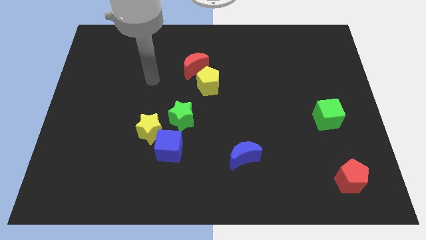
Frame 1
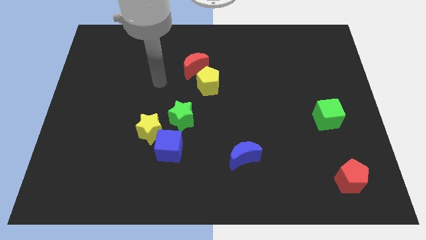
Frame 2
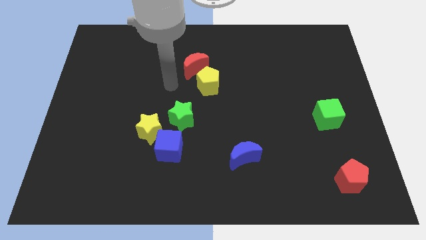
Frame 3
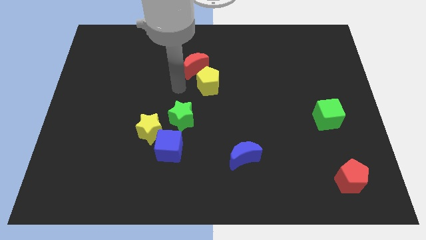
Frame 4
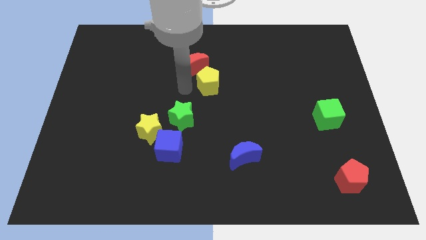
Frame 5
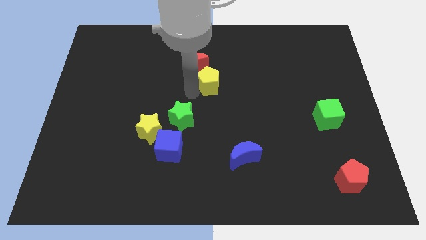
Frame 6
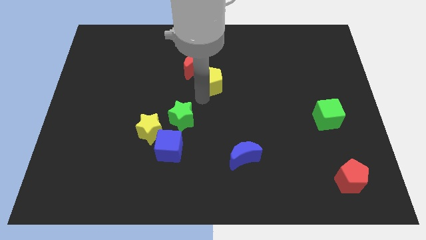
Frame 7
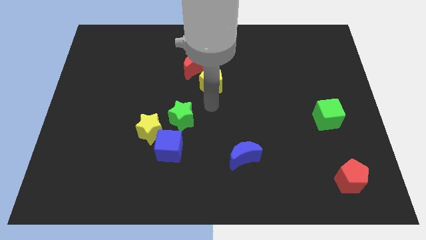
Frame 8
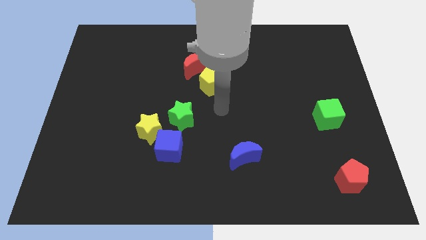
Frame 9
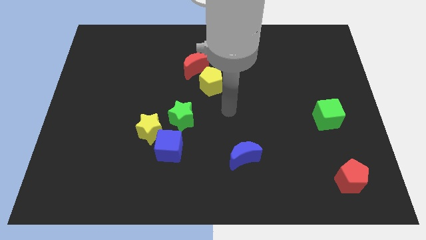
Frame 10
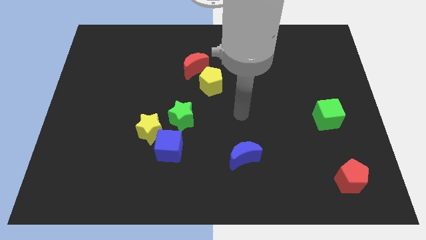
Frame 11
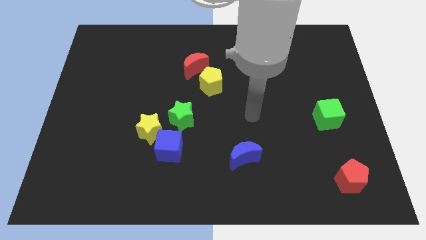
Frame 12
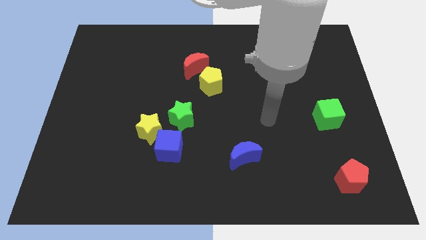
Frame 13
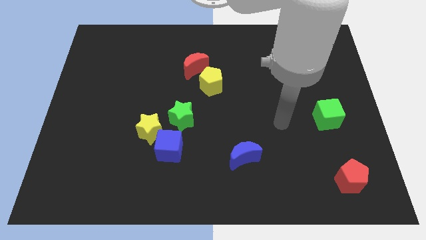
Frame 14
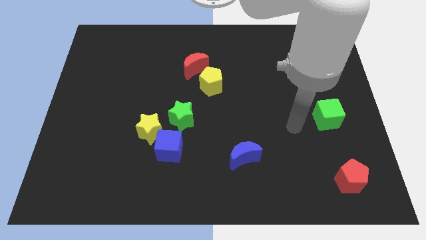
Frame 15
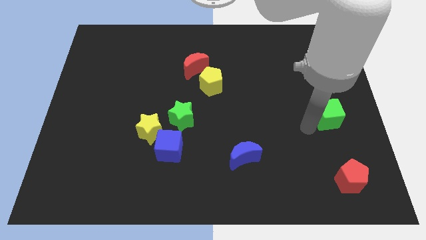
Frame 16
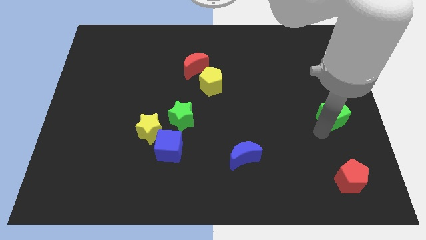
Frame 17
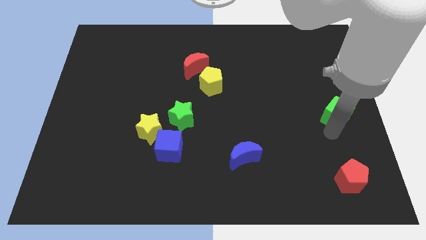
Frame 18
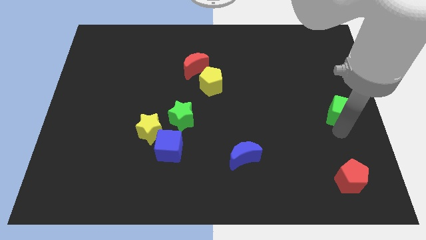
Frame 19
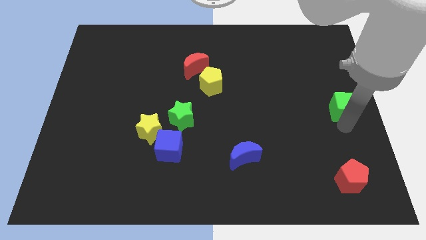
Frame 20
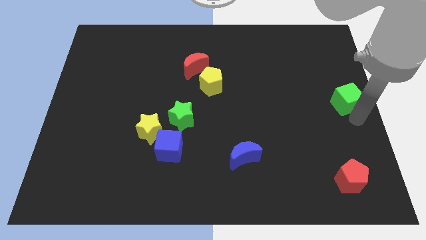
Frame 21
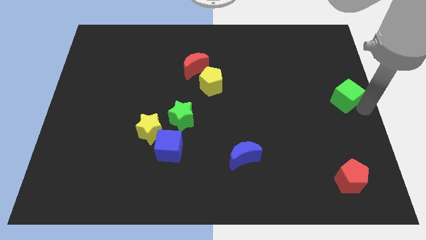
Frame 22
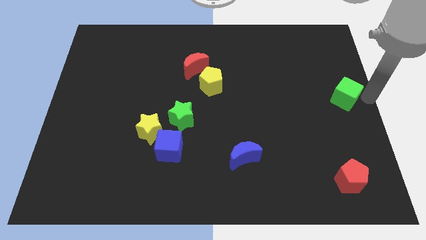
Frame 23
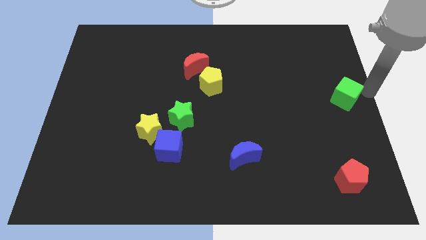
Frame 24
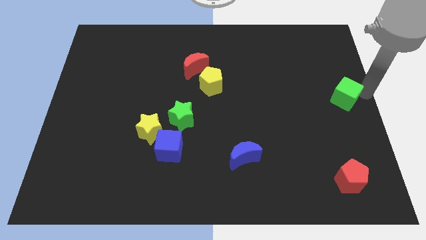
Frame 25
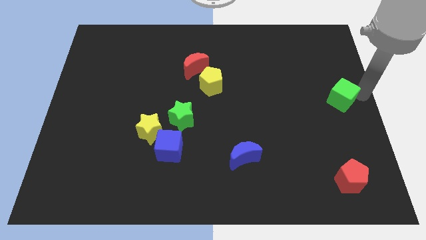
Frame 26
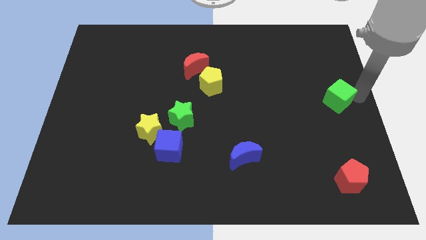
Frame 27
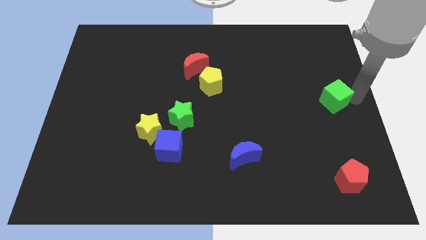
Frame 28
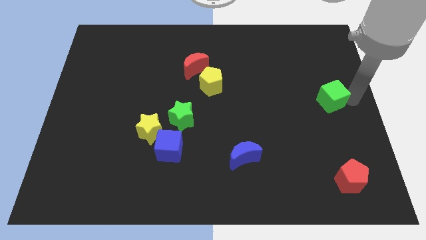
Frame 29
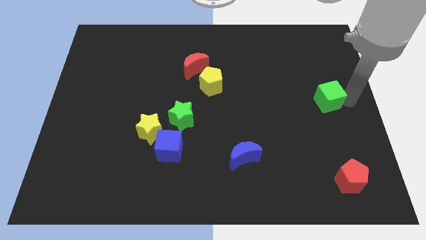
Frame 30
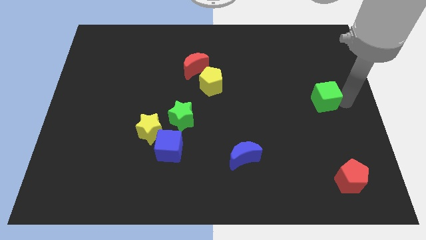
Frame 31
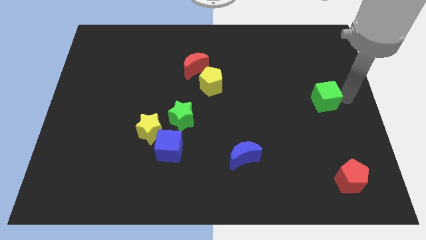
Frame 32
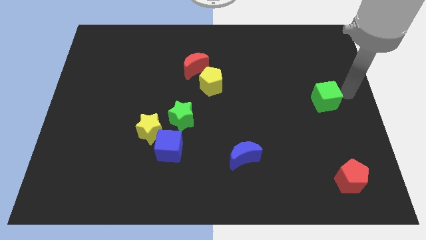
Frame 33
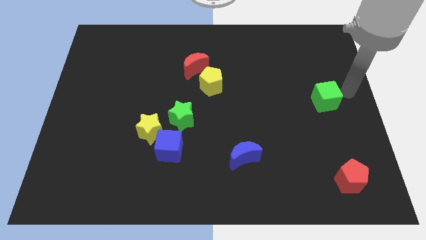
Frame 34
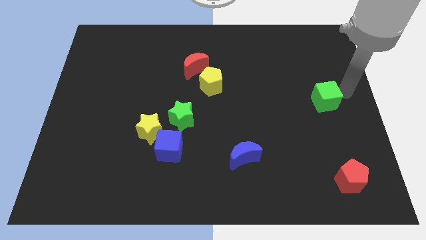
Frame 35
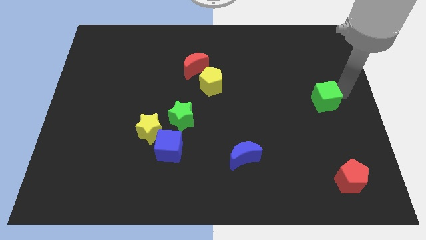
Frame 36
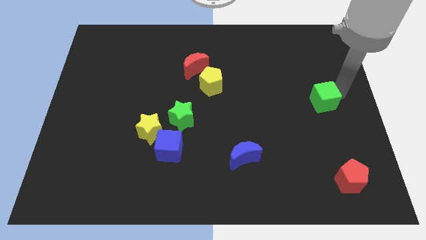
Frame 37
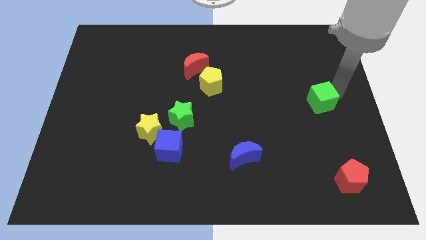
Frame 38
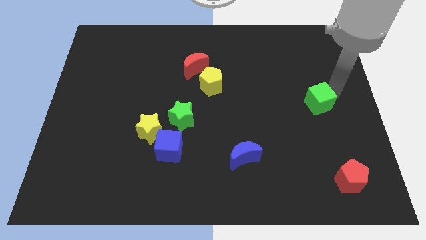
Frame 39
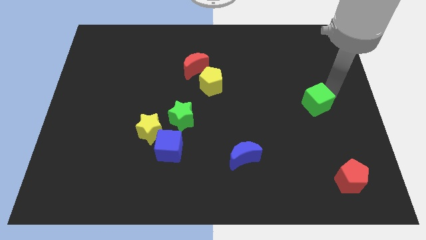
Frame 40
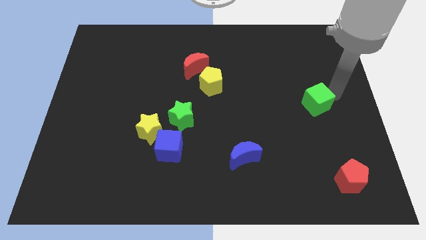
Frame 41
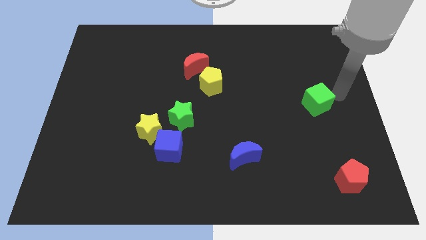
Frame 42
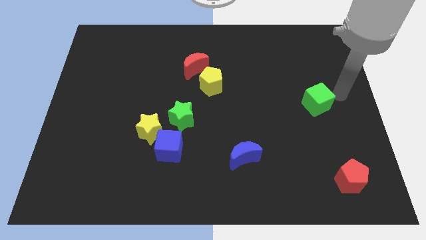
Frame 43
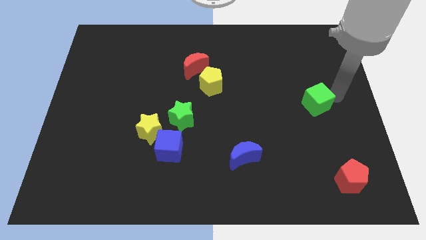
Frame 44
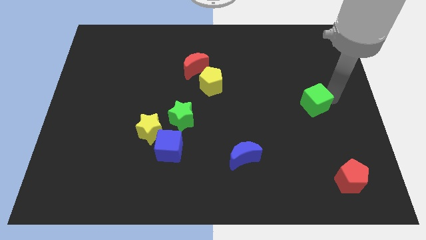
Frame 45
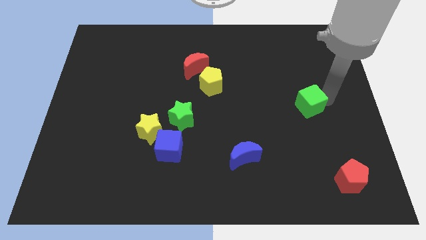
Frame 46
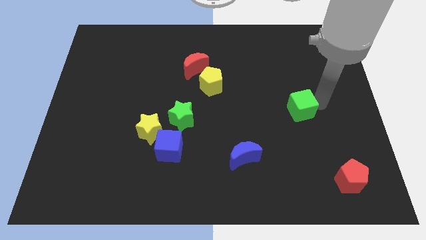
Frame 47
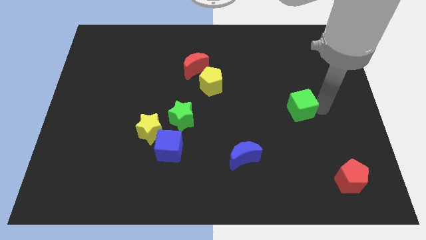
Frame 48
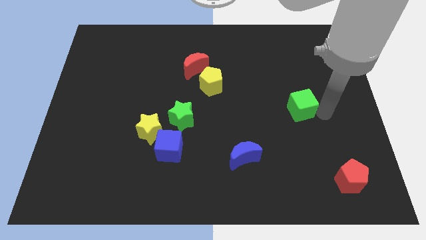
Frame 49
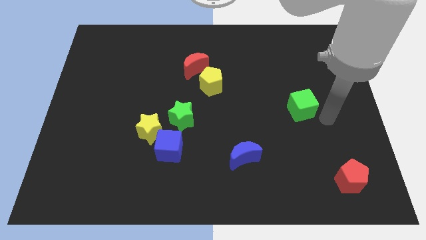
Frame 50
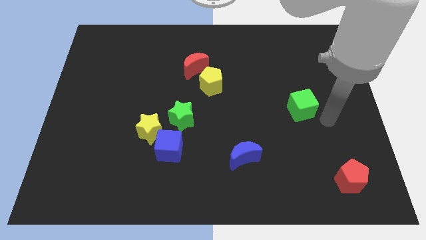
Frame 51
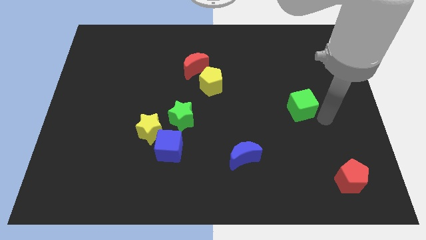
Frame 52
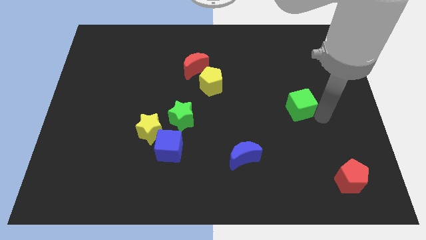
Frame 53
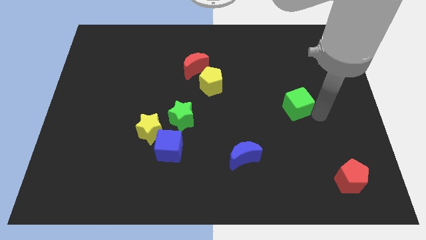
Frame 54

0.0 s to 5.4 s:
slide the green cube a little up and left diagonally

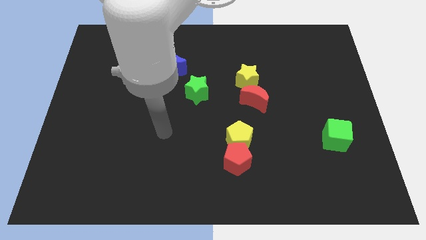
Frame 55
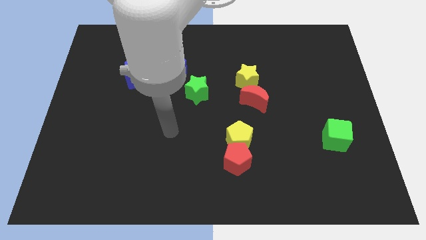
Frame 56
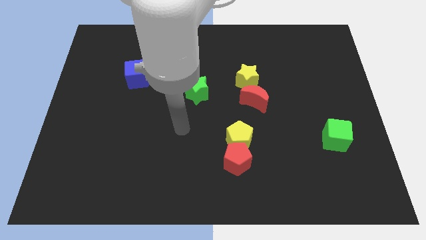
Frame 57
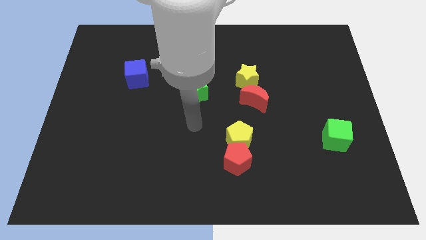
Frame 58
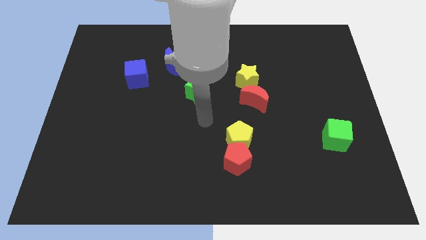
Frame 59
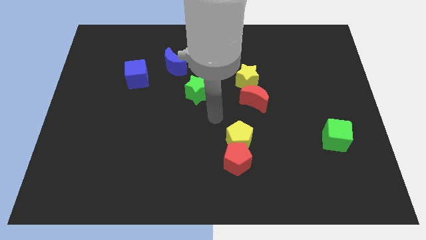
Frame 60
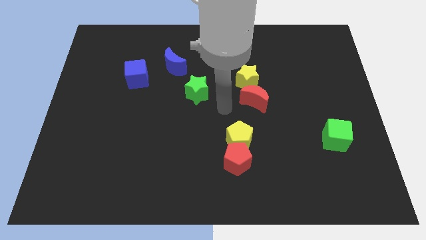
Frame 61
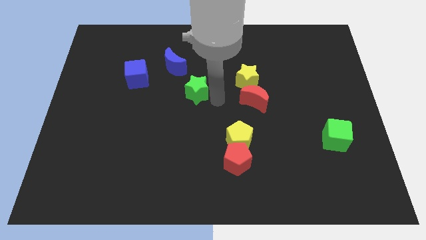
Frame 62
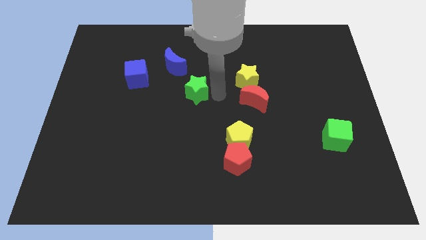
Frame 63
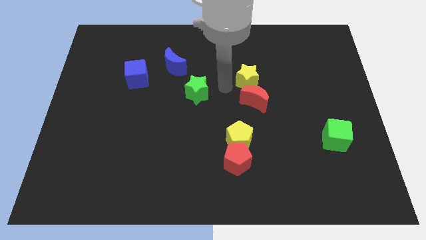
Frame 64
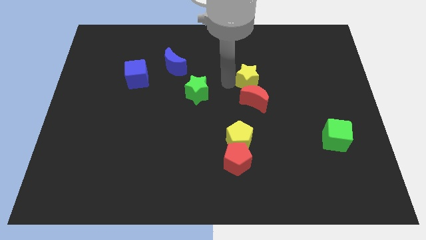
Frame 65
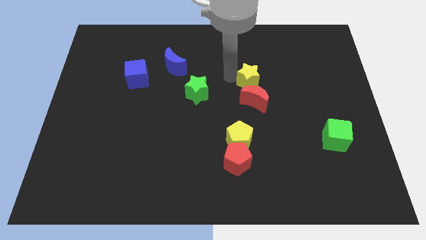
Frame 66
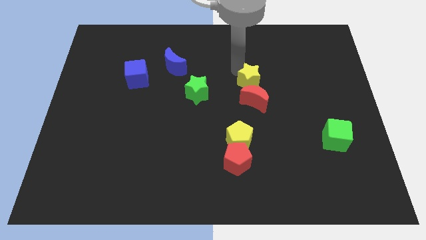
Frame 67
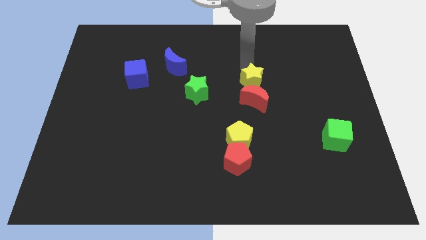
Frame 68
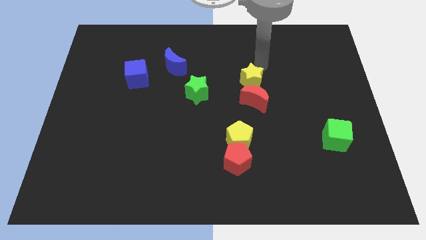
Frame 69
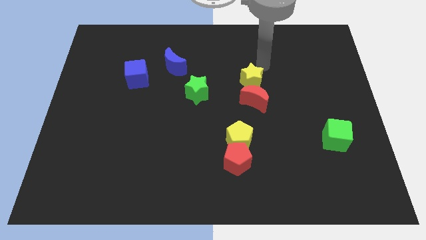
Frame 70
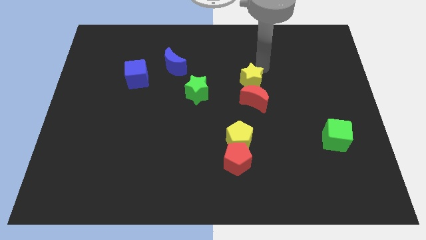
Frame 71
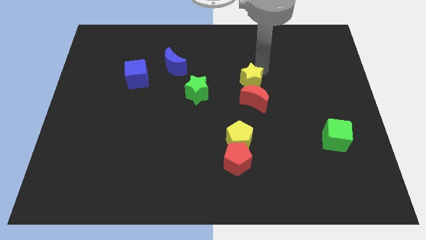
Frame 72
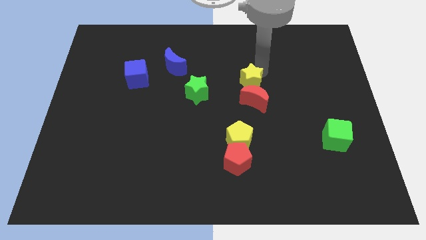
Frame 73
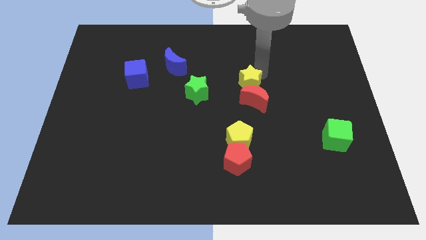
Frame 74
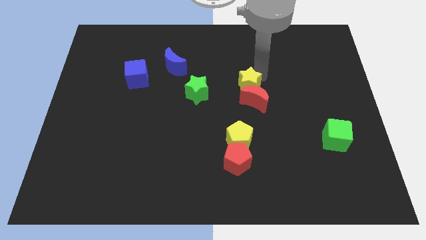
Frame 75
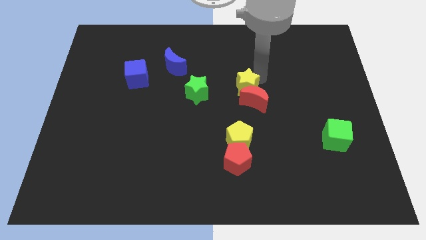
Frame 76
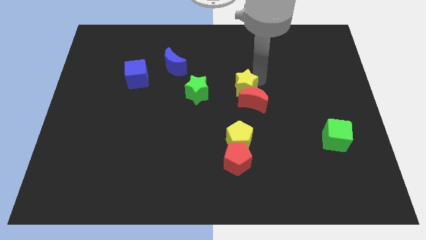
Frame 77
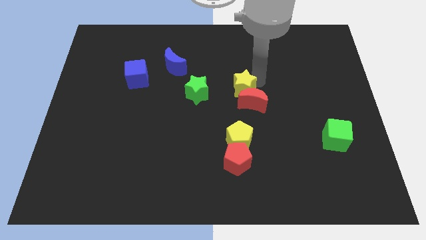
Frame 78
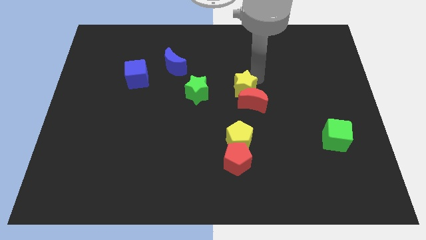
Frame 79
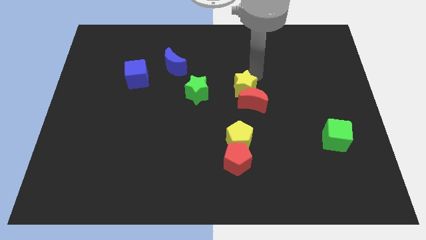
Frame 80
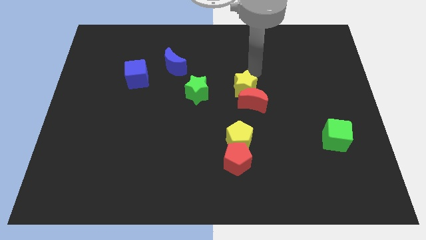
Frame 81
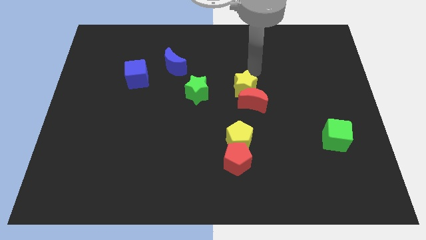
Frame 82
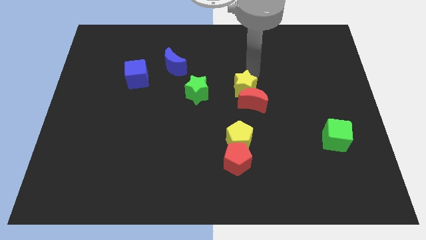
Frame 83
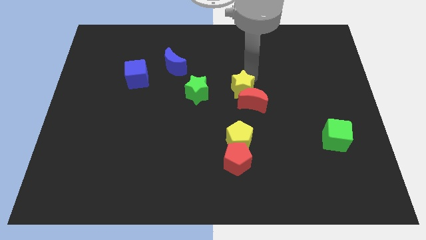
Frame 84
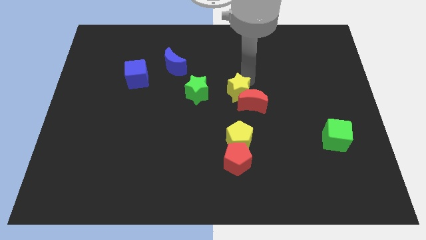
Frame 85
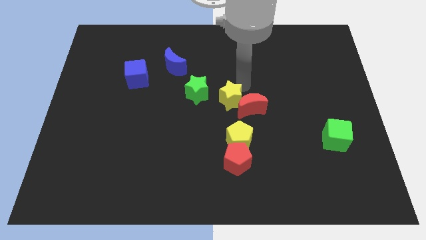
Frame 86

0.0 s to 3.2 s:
slightly push the yellow star downwards and then to the left
